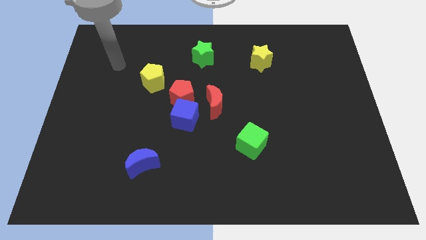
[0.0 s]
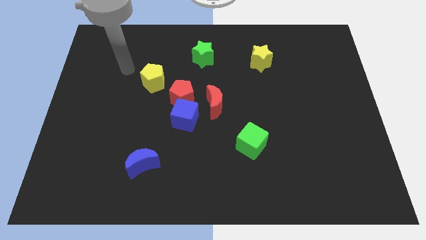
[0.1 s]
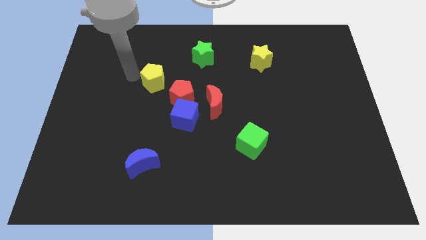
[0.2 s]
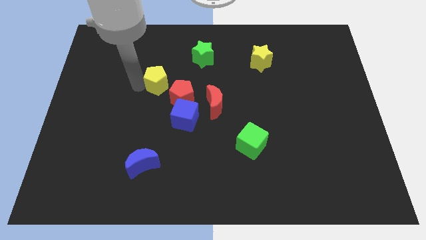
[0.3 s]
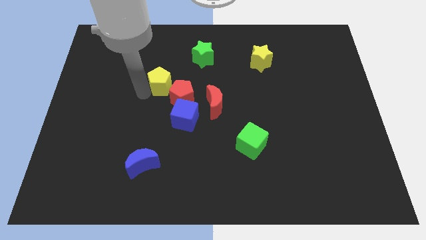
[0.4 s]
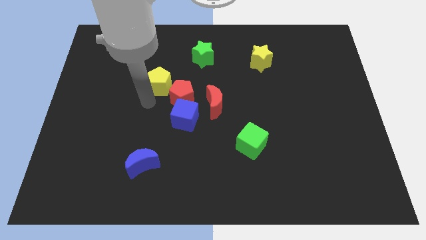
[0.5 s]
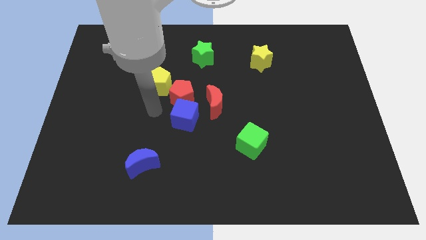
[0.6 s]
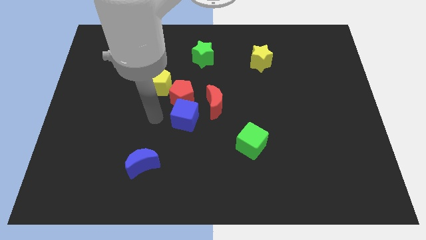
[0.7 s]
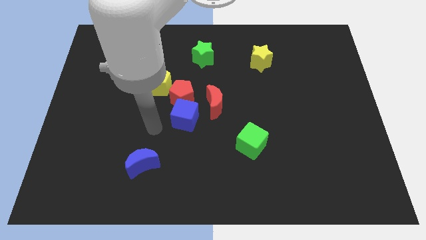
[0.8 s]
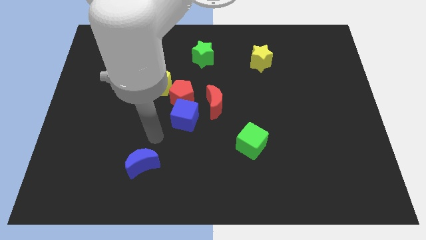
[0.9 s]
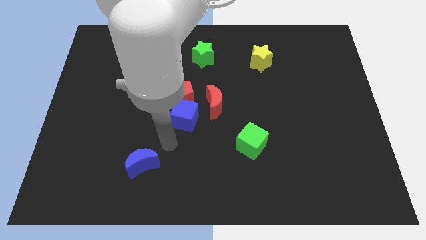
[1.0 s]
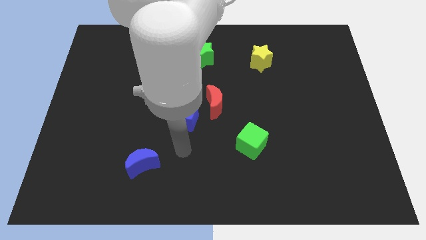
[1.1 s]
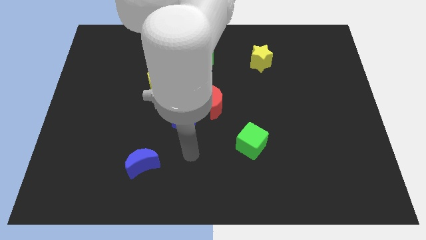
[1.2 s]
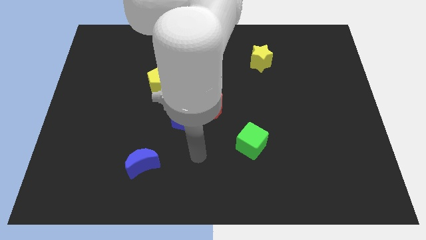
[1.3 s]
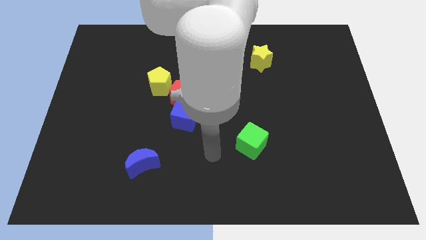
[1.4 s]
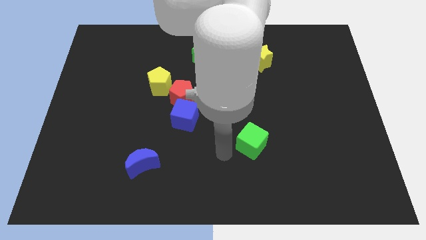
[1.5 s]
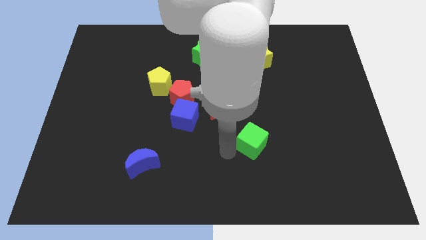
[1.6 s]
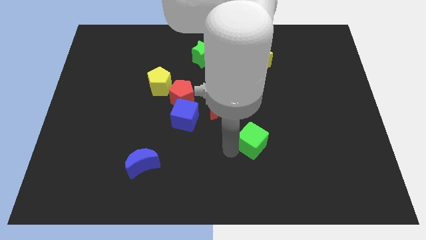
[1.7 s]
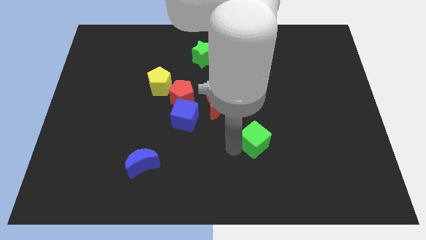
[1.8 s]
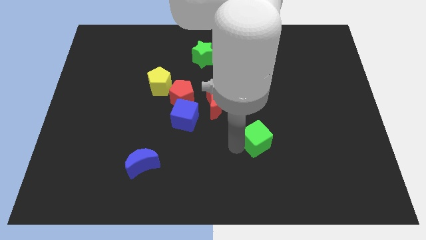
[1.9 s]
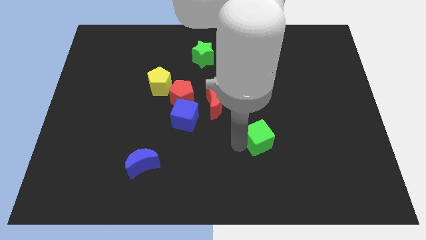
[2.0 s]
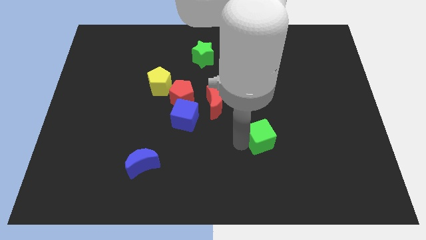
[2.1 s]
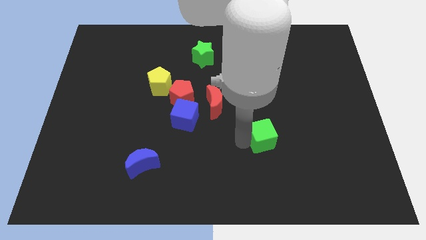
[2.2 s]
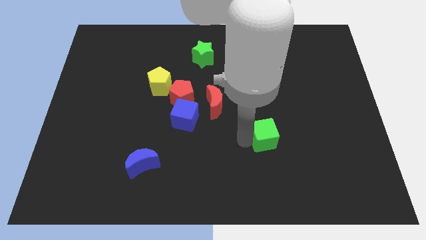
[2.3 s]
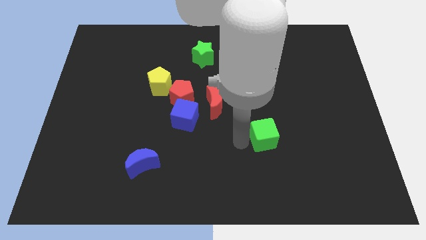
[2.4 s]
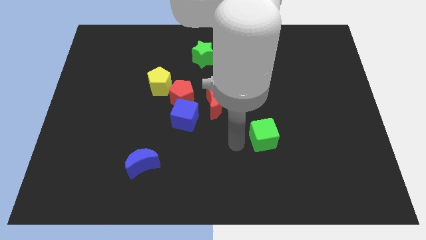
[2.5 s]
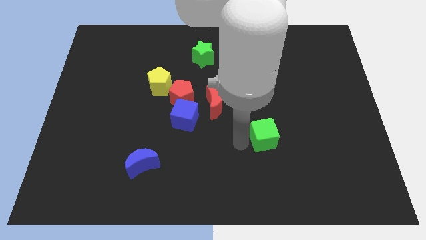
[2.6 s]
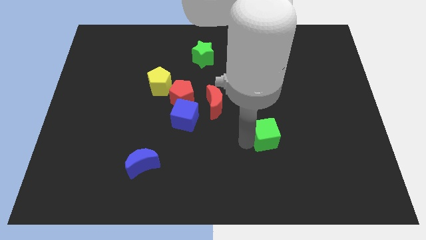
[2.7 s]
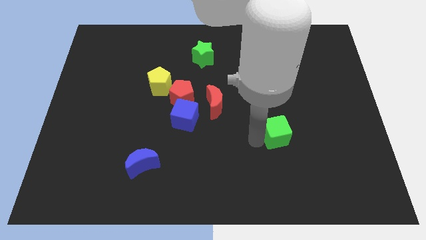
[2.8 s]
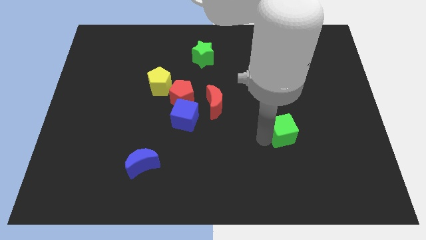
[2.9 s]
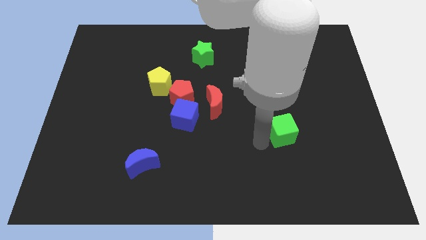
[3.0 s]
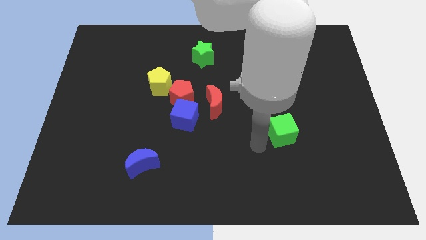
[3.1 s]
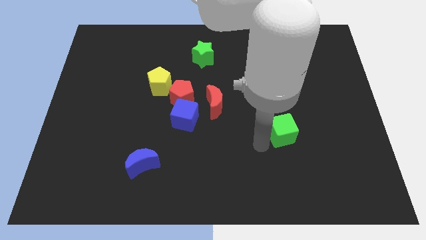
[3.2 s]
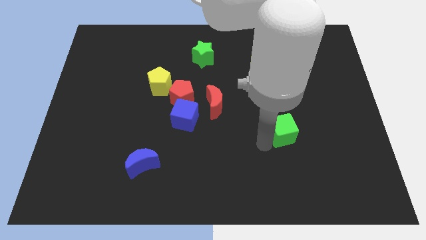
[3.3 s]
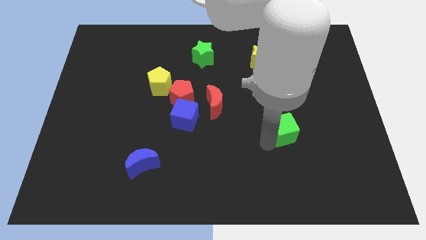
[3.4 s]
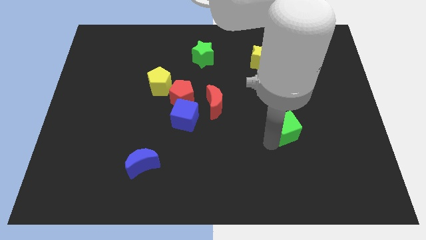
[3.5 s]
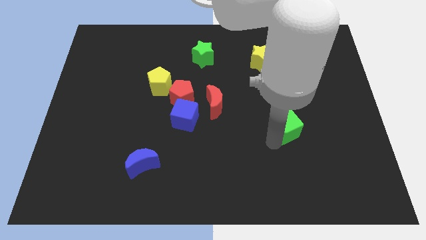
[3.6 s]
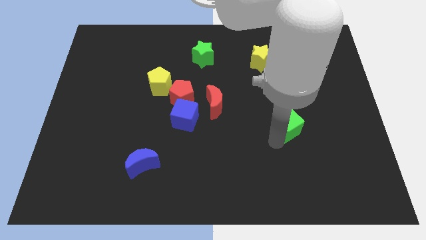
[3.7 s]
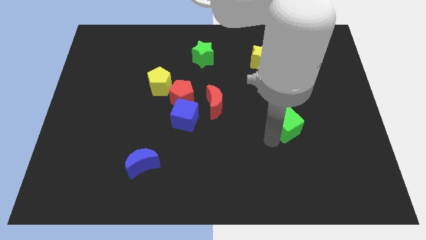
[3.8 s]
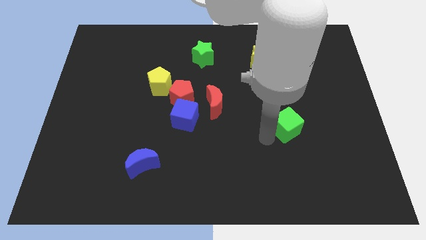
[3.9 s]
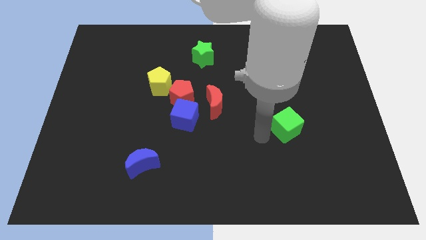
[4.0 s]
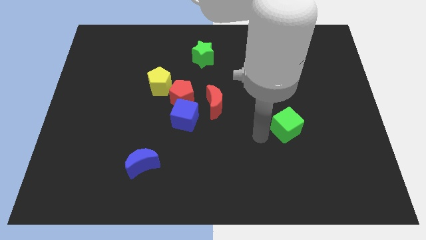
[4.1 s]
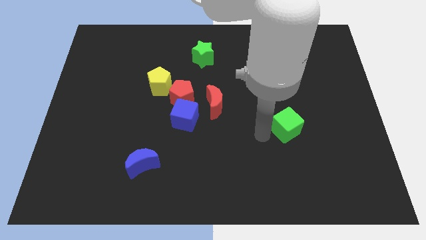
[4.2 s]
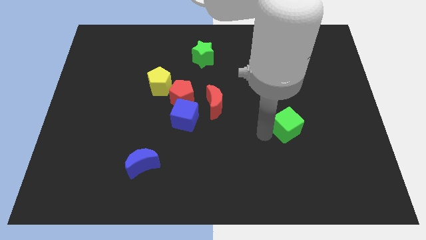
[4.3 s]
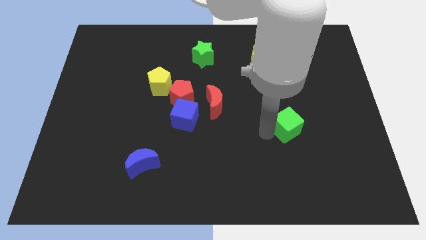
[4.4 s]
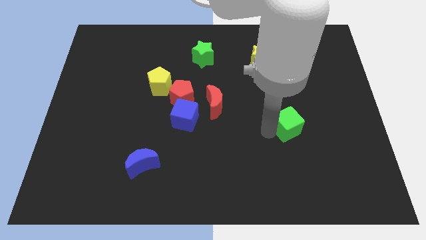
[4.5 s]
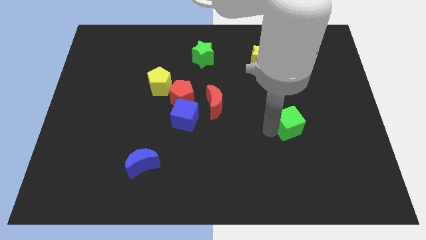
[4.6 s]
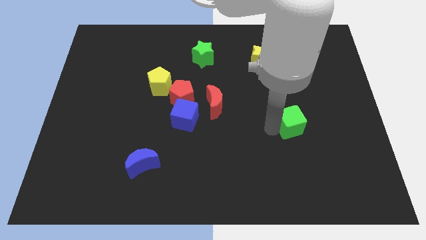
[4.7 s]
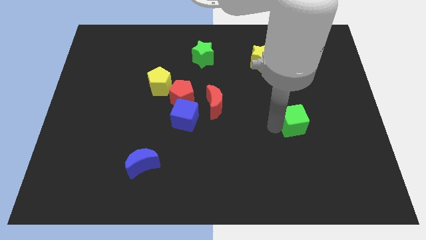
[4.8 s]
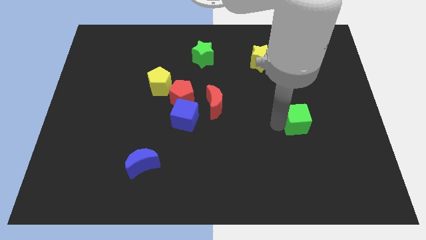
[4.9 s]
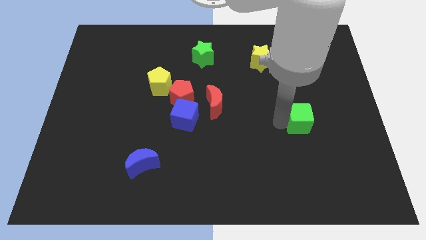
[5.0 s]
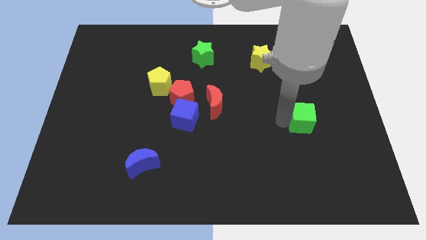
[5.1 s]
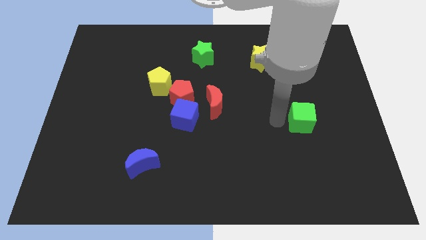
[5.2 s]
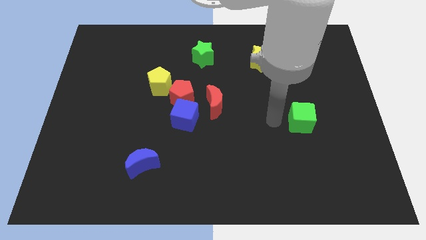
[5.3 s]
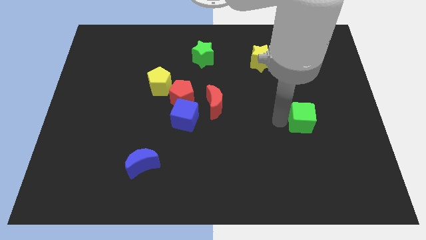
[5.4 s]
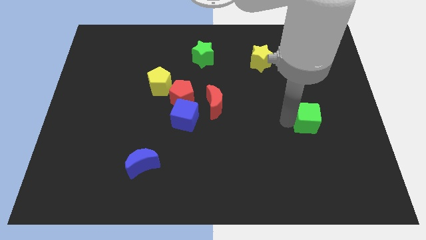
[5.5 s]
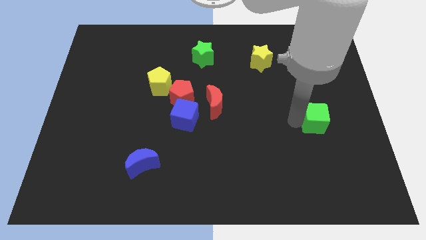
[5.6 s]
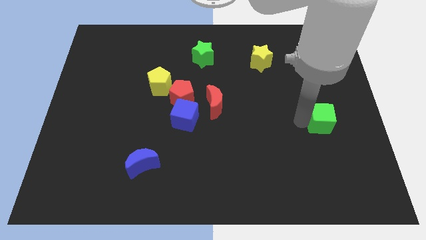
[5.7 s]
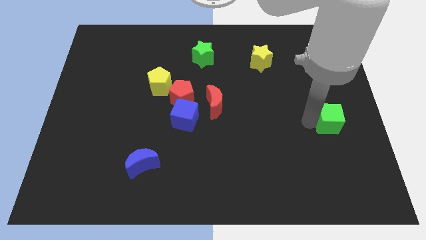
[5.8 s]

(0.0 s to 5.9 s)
move the green cube to the right side
